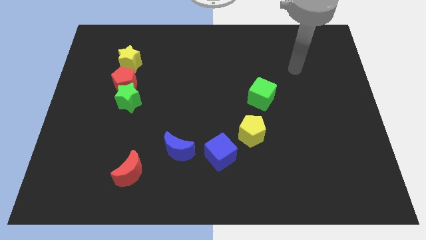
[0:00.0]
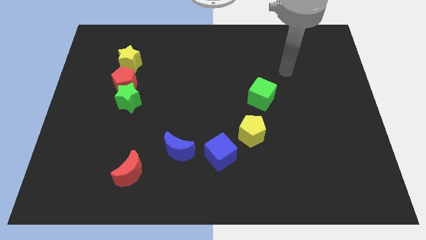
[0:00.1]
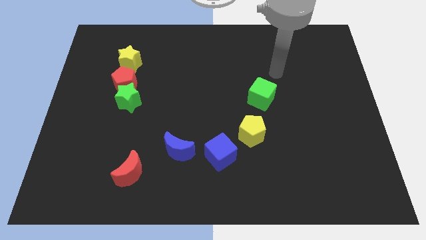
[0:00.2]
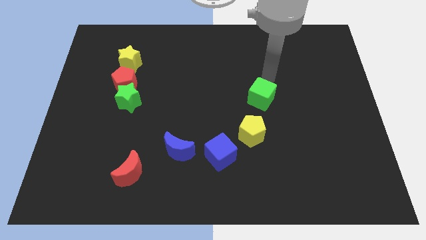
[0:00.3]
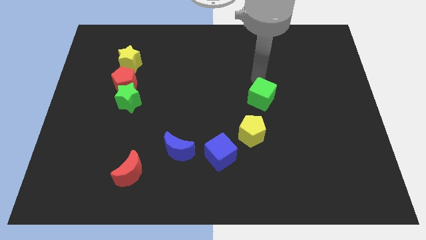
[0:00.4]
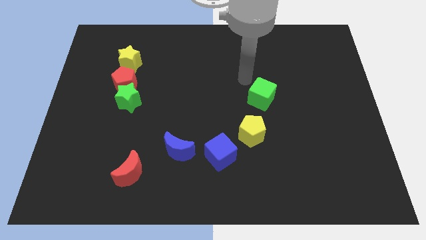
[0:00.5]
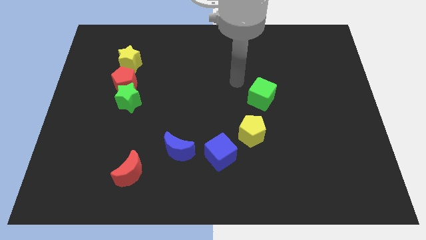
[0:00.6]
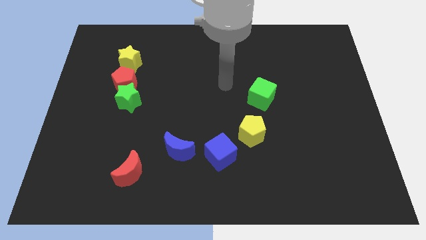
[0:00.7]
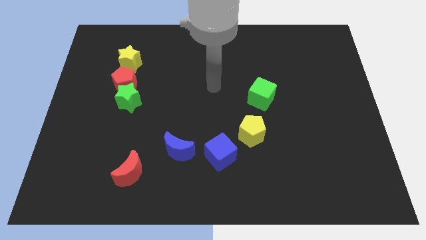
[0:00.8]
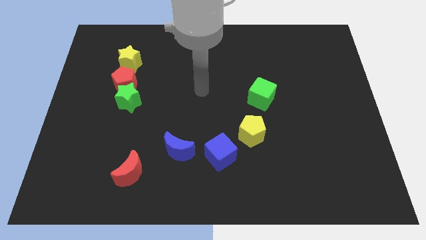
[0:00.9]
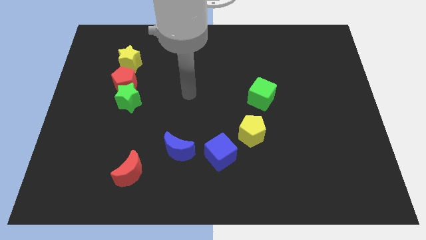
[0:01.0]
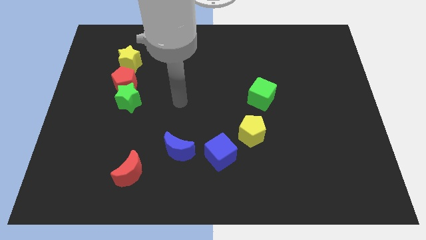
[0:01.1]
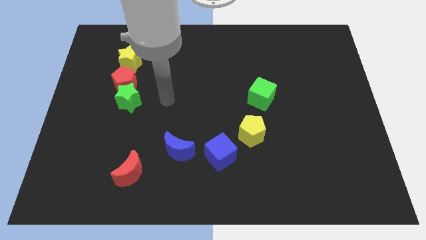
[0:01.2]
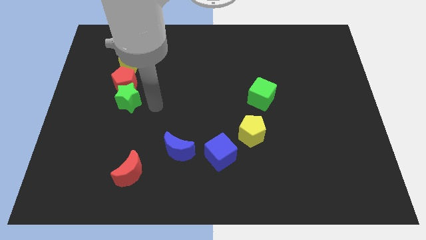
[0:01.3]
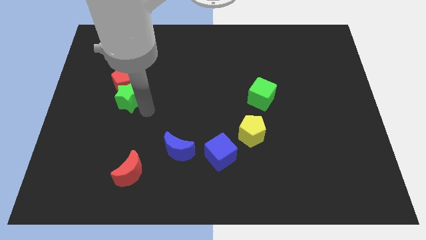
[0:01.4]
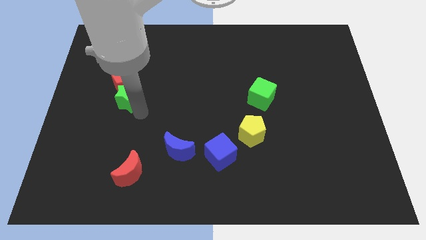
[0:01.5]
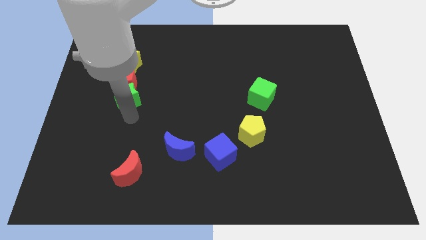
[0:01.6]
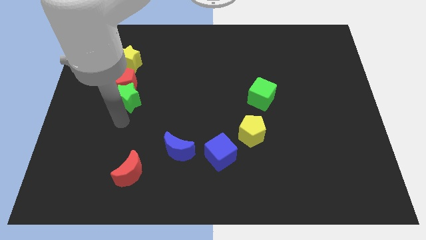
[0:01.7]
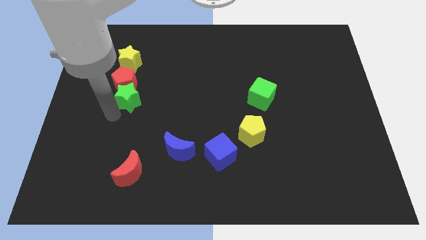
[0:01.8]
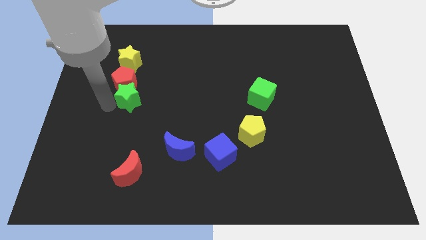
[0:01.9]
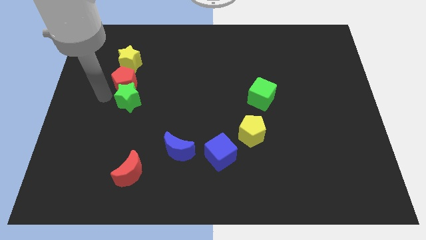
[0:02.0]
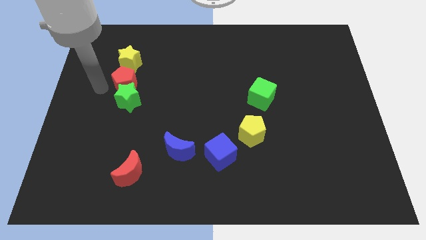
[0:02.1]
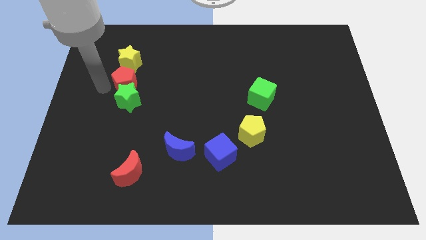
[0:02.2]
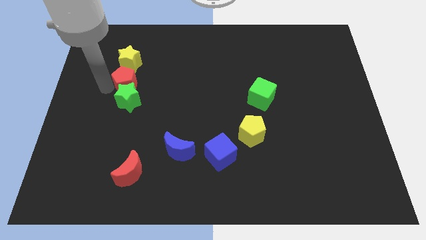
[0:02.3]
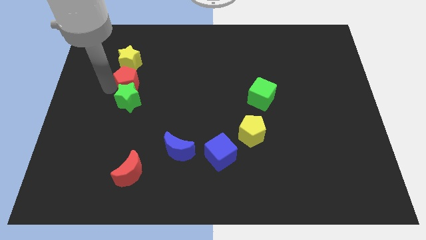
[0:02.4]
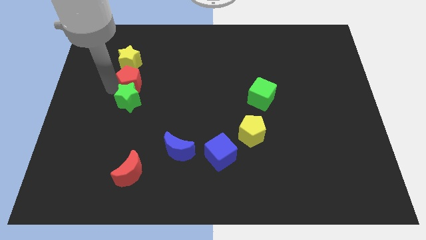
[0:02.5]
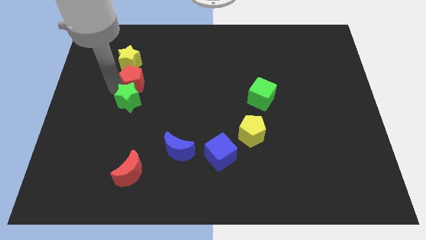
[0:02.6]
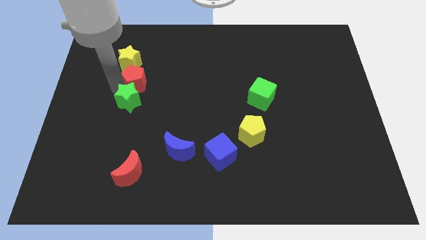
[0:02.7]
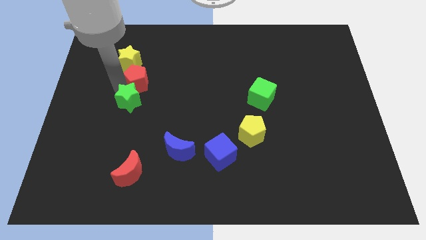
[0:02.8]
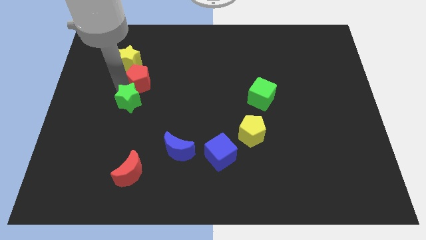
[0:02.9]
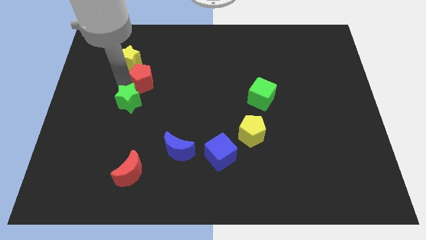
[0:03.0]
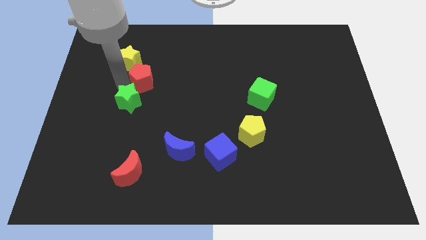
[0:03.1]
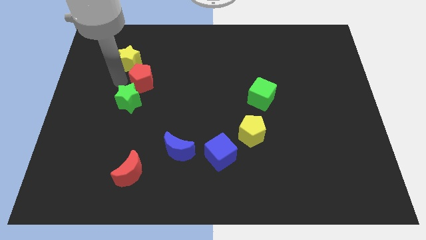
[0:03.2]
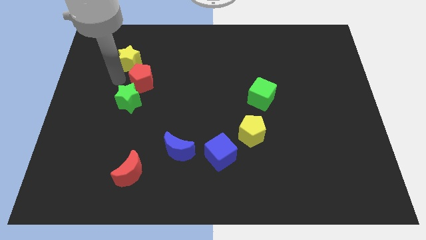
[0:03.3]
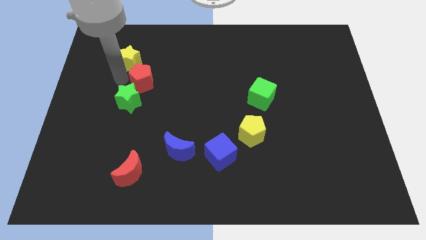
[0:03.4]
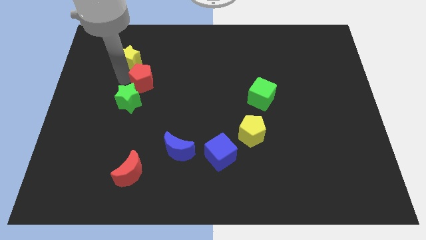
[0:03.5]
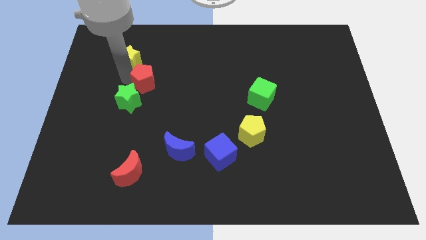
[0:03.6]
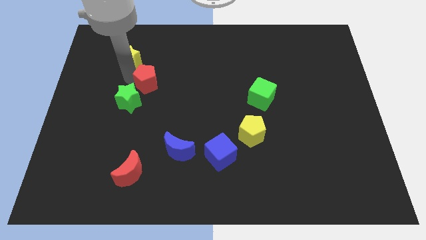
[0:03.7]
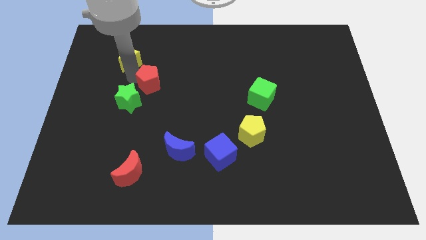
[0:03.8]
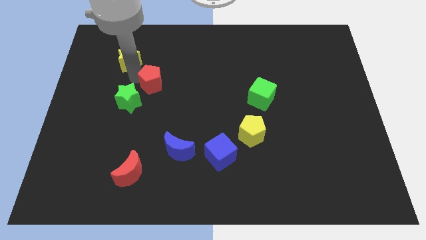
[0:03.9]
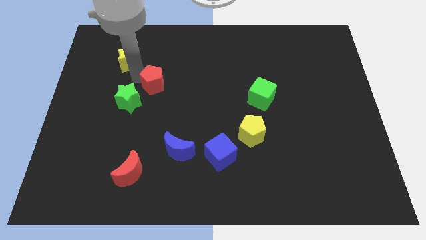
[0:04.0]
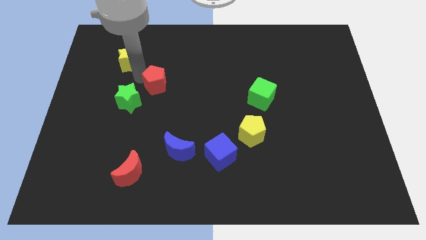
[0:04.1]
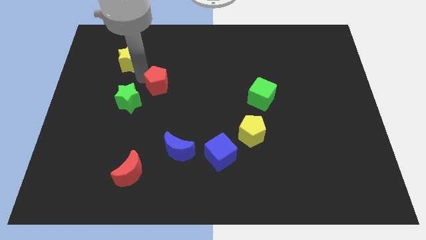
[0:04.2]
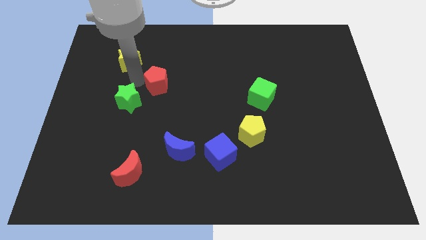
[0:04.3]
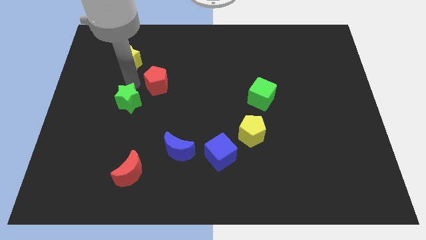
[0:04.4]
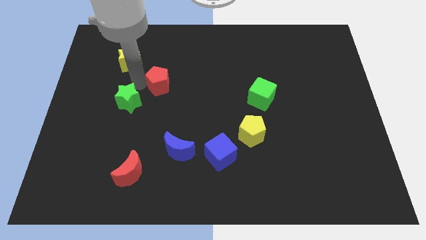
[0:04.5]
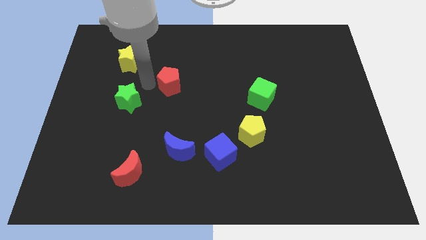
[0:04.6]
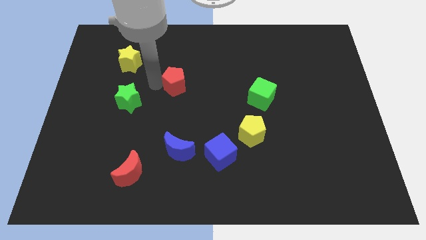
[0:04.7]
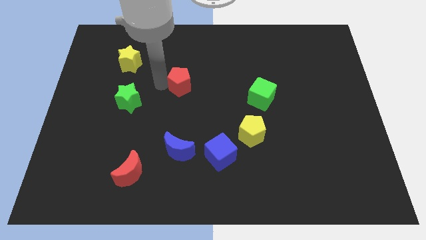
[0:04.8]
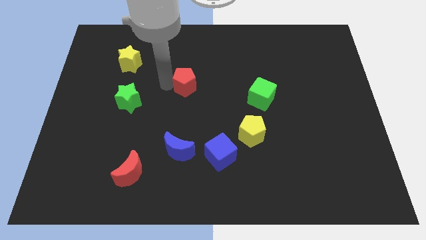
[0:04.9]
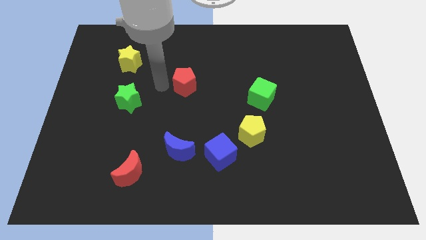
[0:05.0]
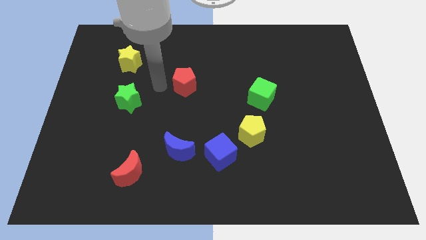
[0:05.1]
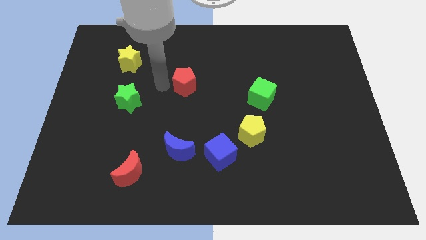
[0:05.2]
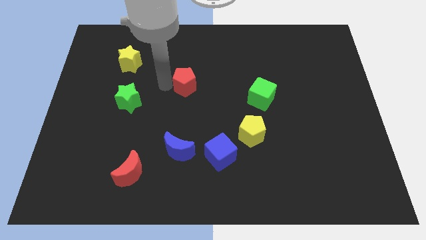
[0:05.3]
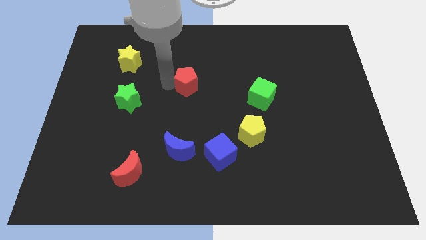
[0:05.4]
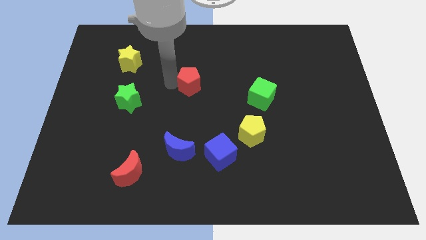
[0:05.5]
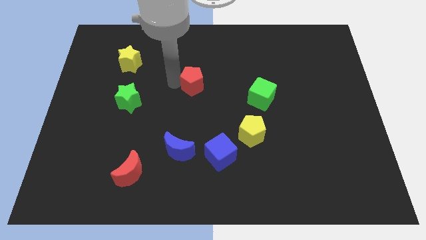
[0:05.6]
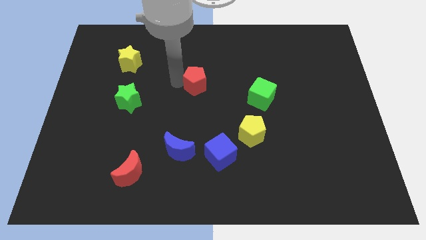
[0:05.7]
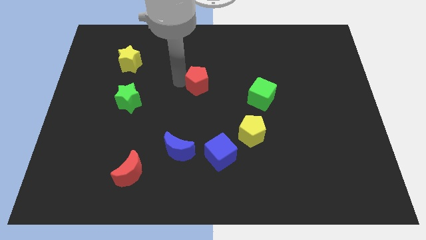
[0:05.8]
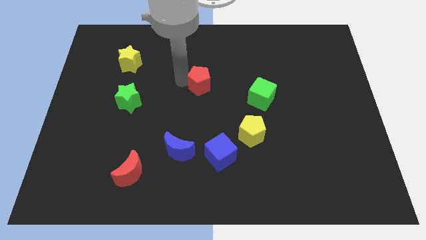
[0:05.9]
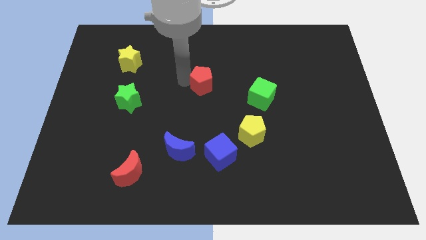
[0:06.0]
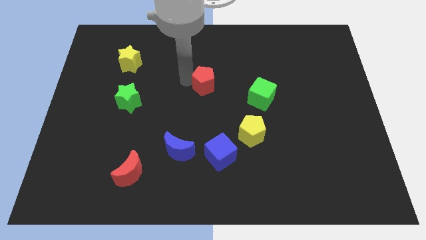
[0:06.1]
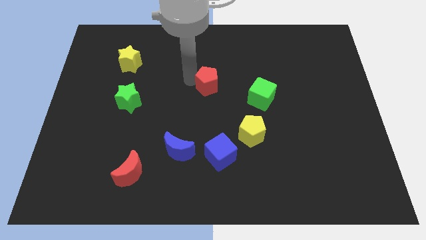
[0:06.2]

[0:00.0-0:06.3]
move the red pentagon right

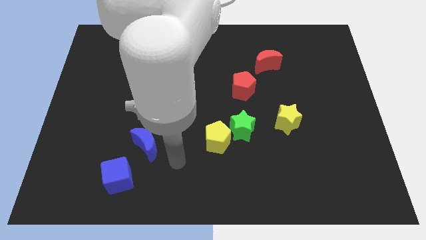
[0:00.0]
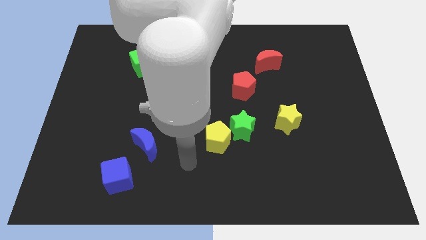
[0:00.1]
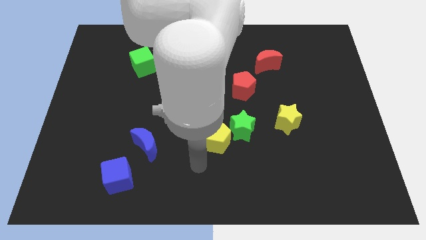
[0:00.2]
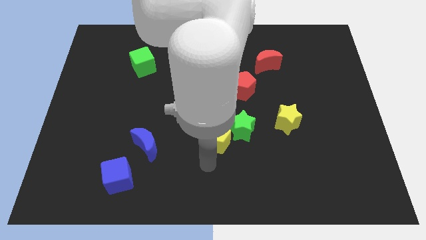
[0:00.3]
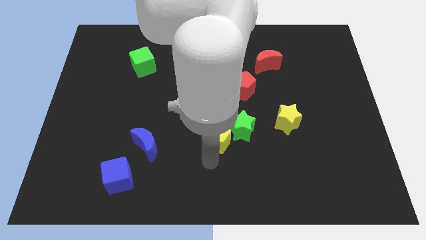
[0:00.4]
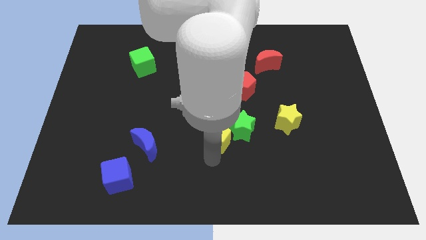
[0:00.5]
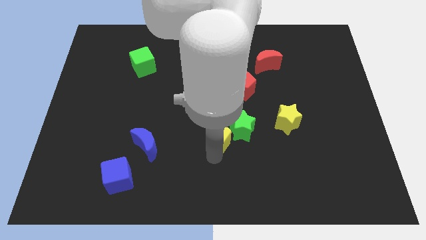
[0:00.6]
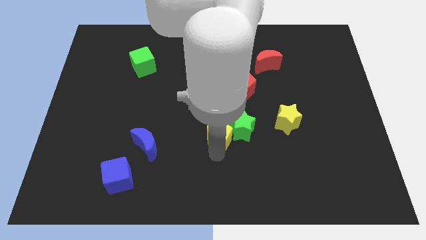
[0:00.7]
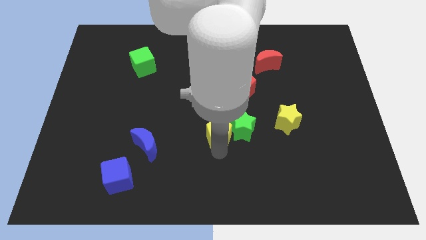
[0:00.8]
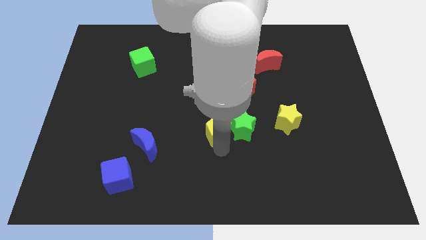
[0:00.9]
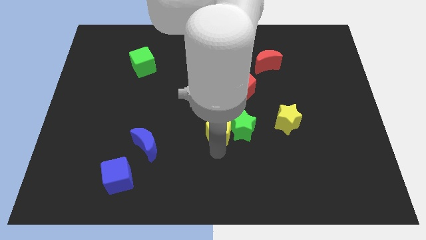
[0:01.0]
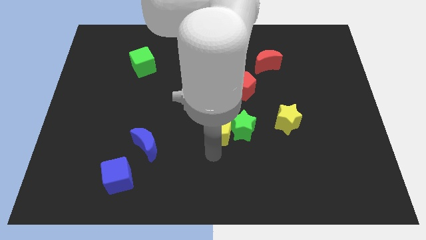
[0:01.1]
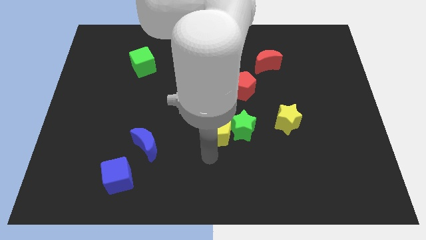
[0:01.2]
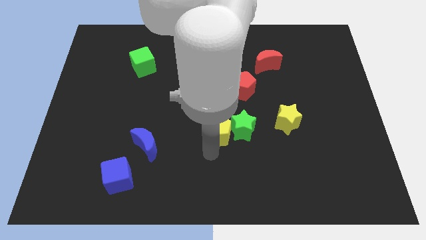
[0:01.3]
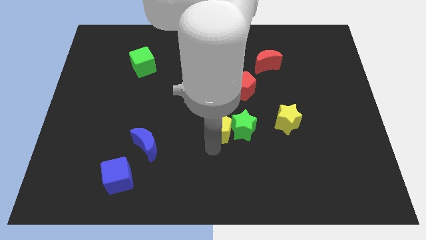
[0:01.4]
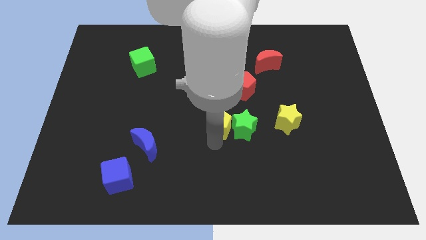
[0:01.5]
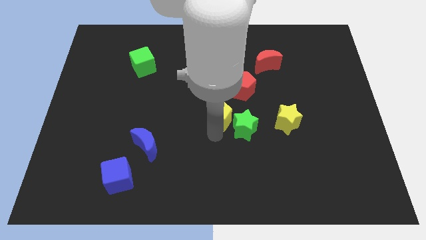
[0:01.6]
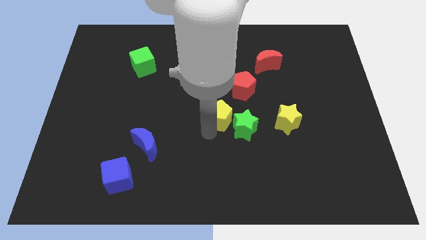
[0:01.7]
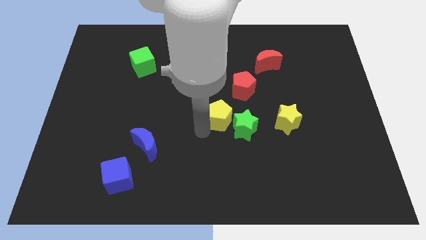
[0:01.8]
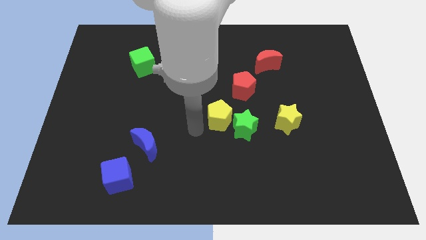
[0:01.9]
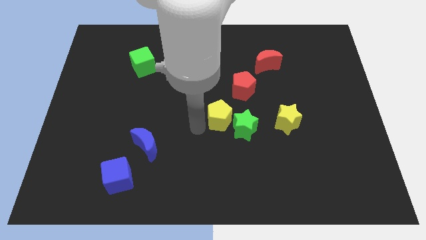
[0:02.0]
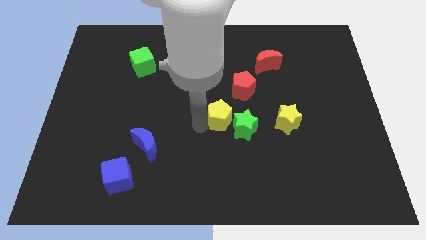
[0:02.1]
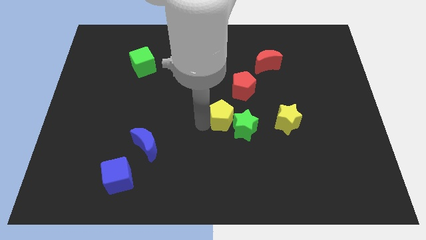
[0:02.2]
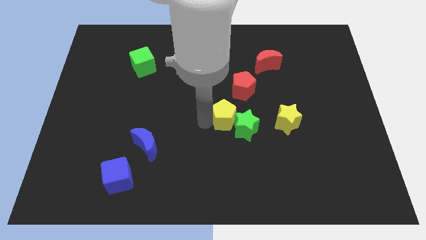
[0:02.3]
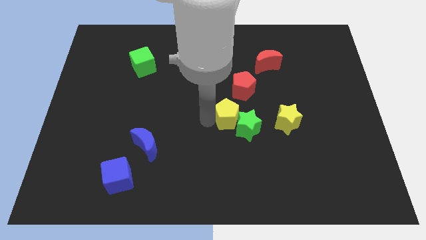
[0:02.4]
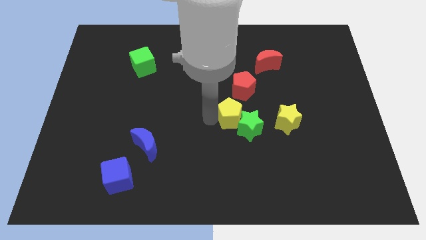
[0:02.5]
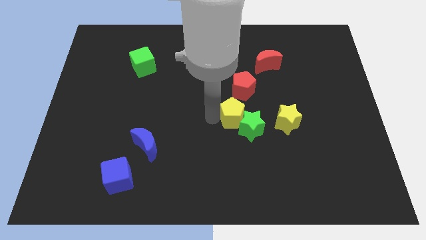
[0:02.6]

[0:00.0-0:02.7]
push the yellow pentagon upwards and right diagonally a little bit
